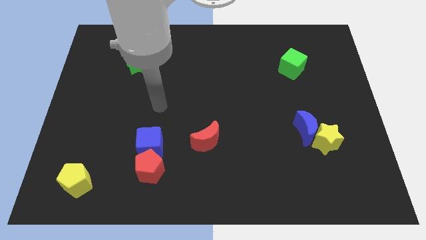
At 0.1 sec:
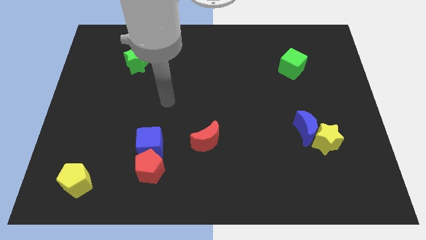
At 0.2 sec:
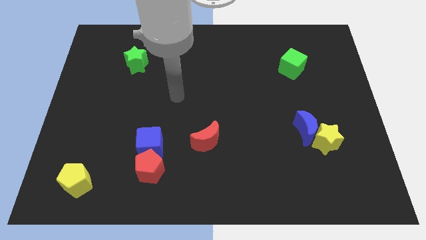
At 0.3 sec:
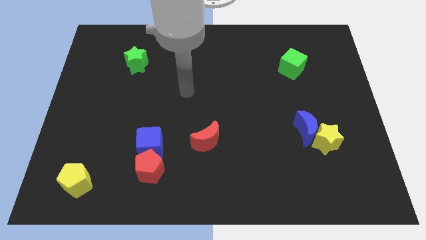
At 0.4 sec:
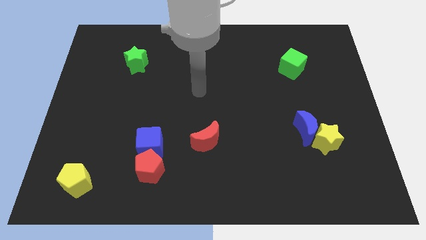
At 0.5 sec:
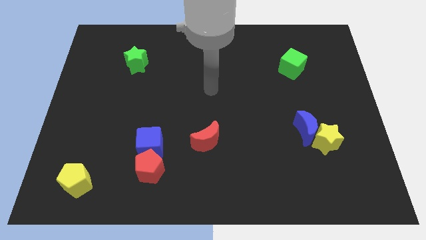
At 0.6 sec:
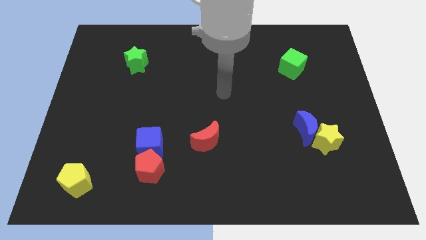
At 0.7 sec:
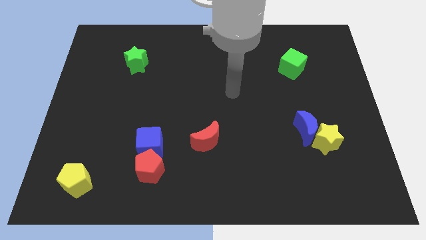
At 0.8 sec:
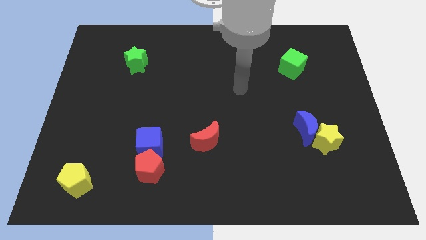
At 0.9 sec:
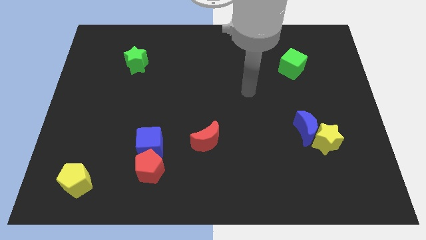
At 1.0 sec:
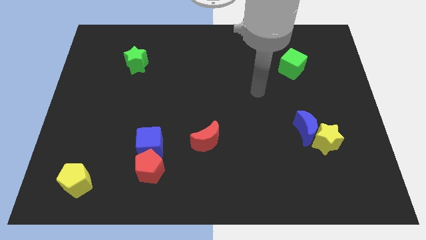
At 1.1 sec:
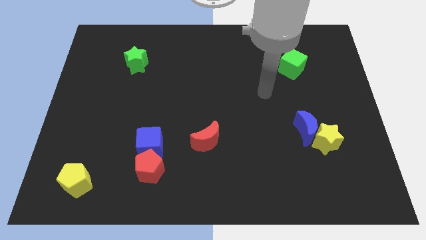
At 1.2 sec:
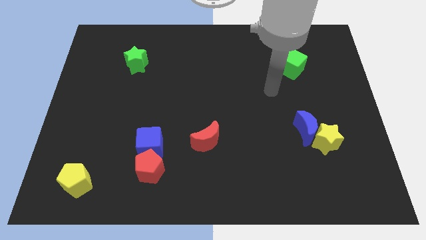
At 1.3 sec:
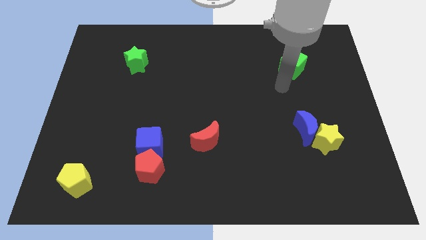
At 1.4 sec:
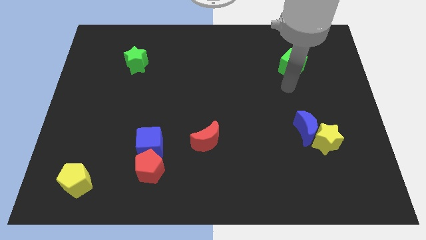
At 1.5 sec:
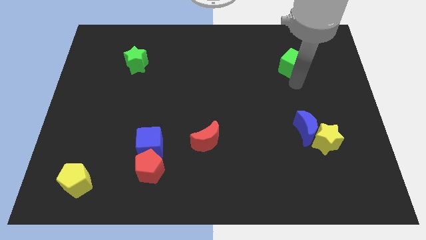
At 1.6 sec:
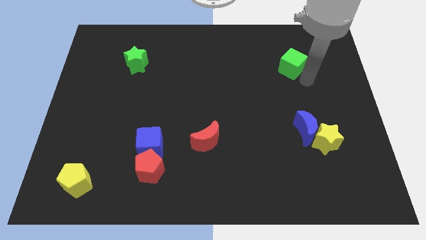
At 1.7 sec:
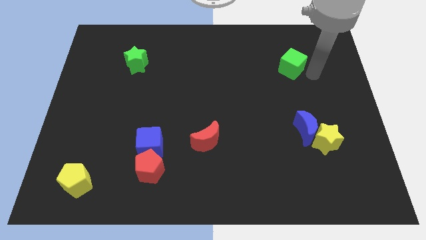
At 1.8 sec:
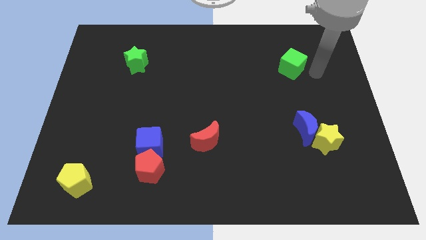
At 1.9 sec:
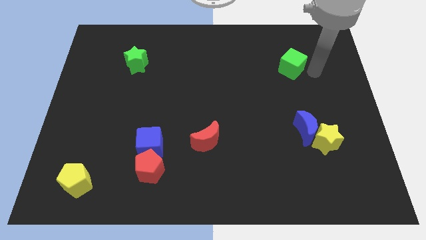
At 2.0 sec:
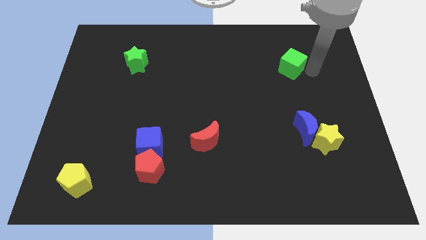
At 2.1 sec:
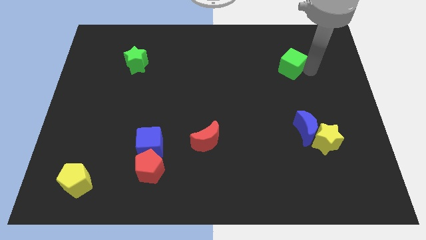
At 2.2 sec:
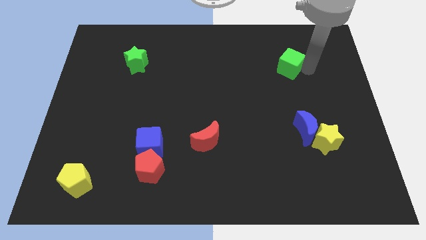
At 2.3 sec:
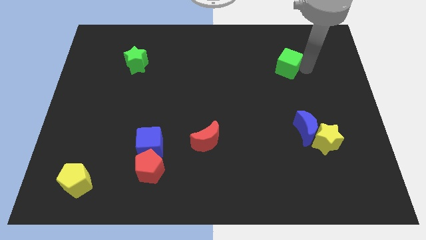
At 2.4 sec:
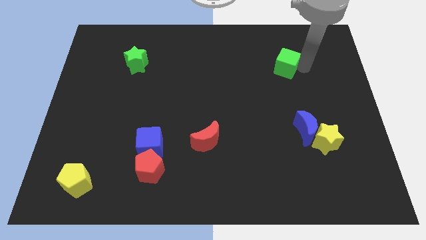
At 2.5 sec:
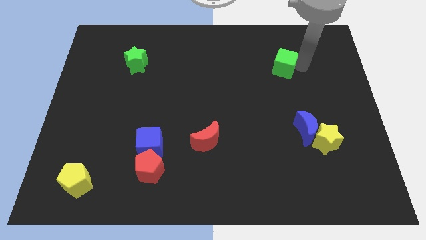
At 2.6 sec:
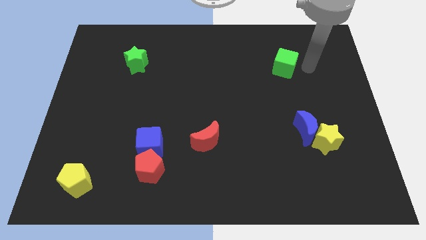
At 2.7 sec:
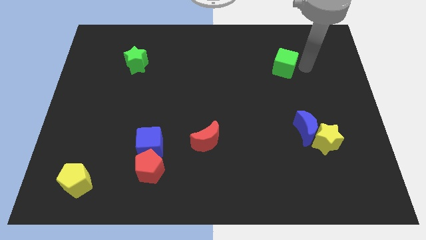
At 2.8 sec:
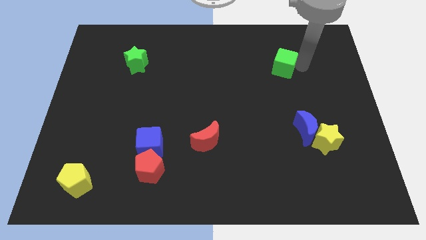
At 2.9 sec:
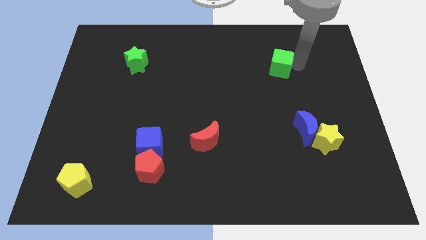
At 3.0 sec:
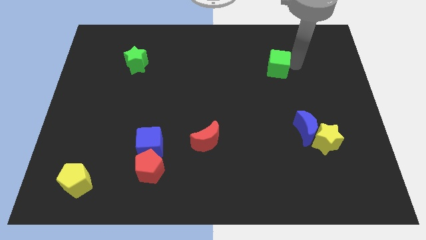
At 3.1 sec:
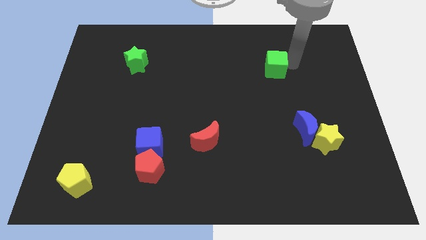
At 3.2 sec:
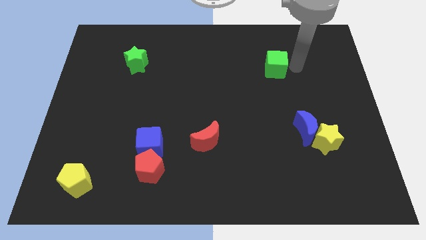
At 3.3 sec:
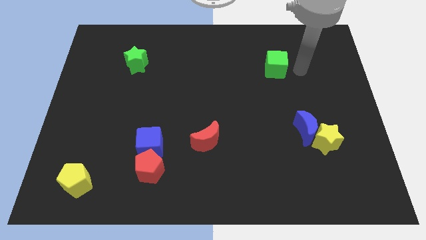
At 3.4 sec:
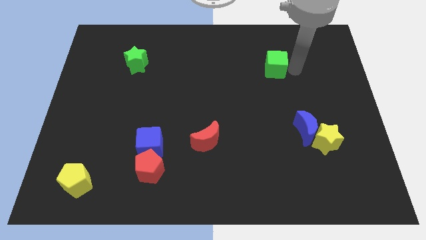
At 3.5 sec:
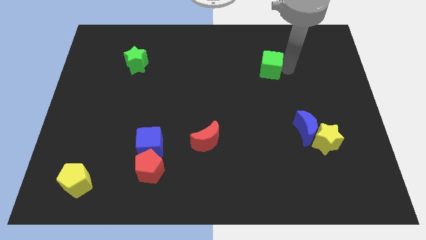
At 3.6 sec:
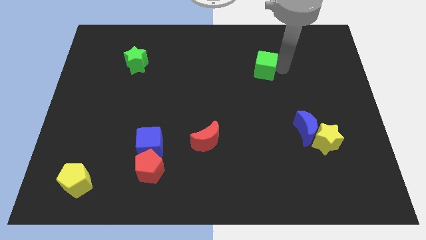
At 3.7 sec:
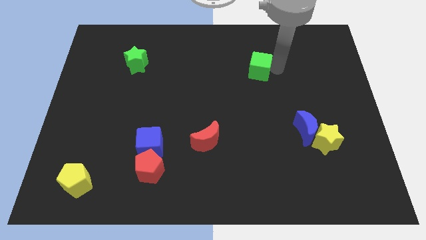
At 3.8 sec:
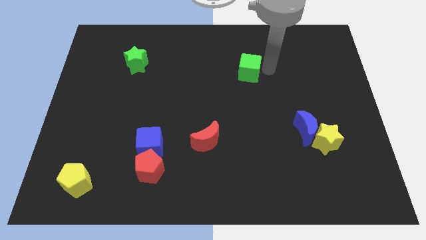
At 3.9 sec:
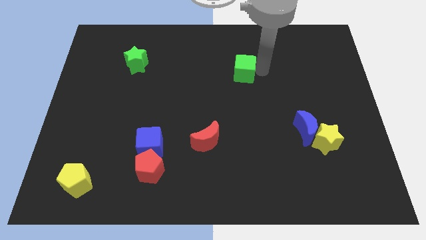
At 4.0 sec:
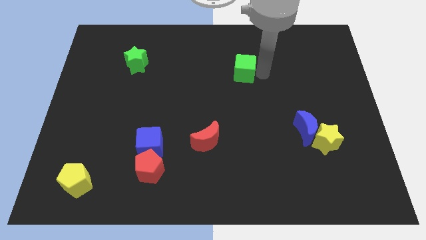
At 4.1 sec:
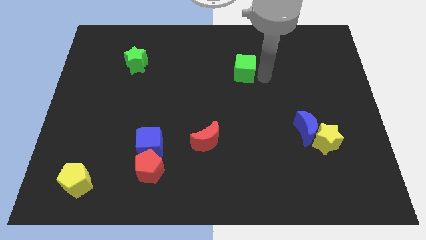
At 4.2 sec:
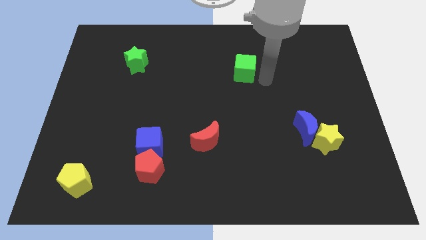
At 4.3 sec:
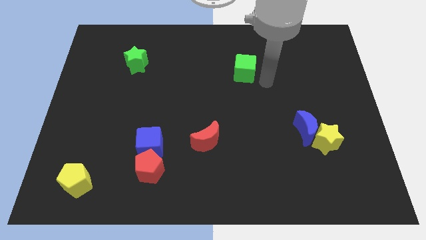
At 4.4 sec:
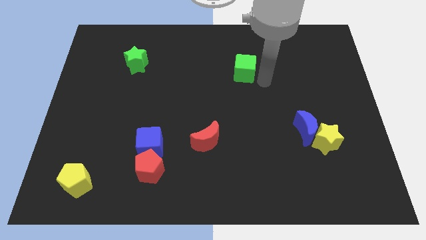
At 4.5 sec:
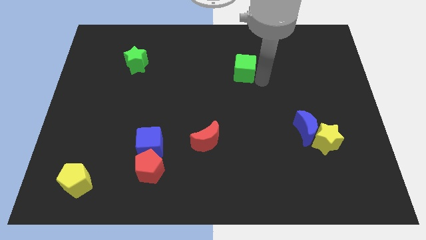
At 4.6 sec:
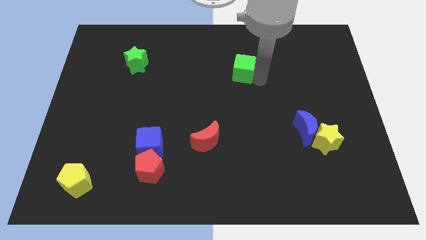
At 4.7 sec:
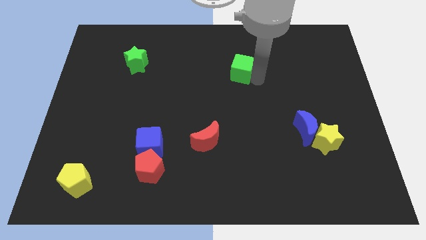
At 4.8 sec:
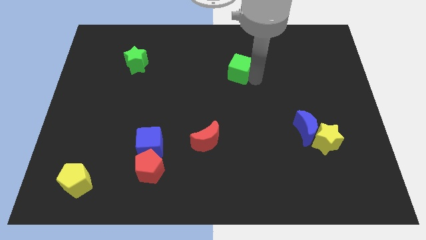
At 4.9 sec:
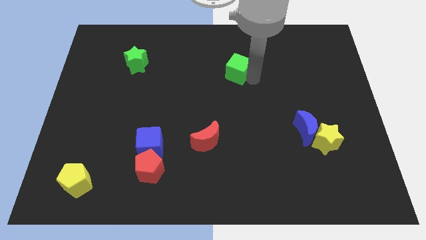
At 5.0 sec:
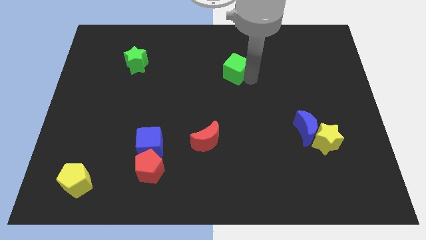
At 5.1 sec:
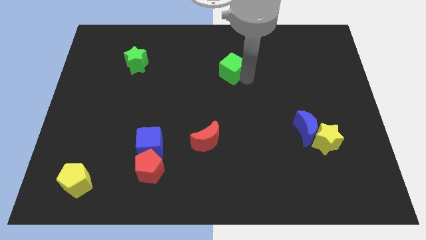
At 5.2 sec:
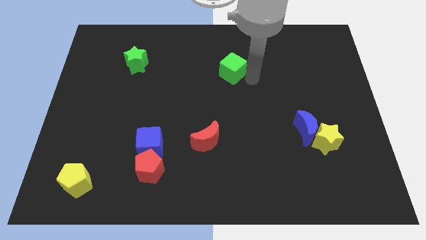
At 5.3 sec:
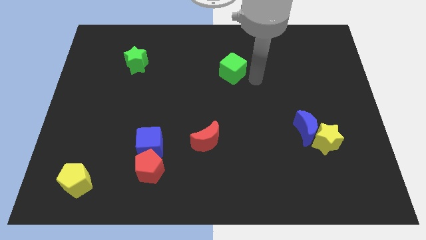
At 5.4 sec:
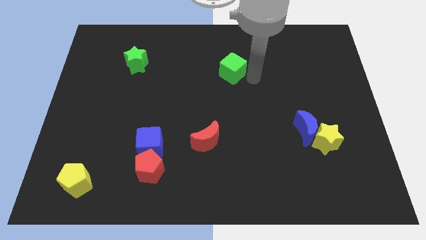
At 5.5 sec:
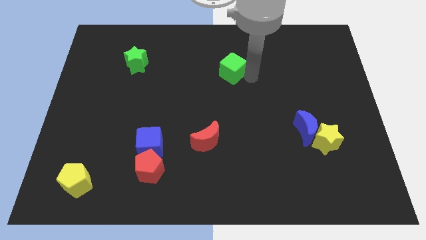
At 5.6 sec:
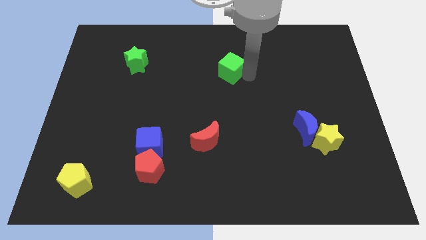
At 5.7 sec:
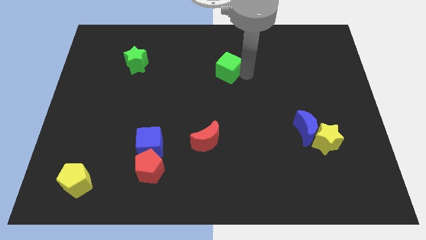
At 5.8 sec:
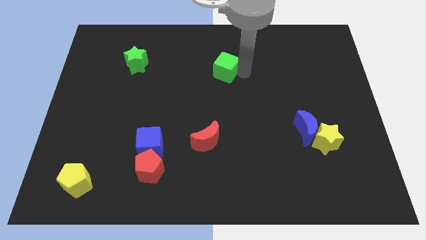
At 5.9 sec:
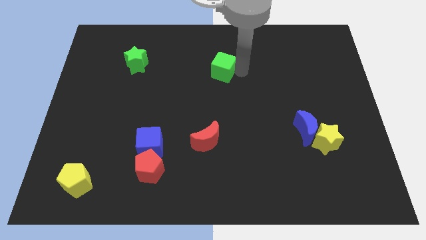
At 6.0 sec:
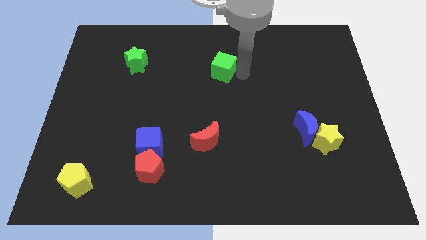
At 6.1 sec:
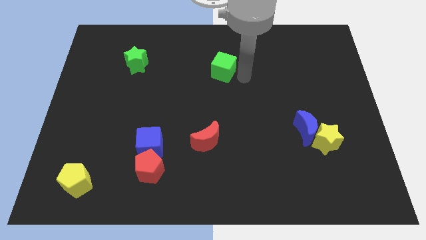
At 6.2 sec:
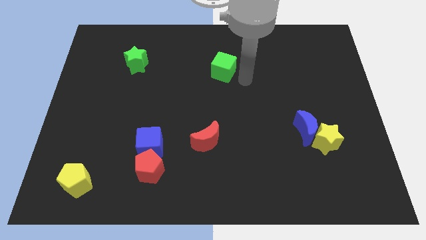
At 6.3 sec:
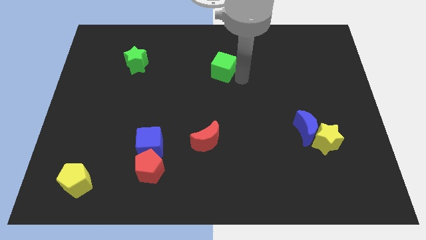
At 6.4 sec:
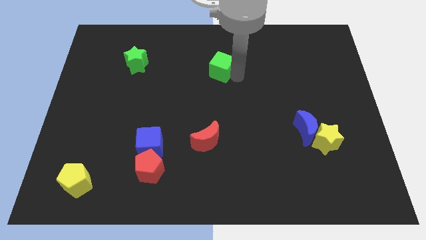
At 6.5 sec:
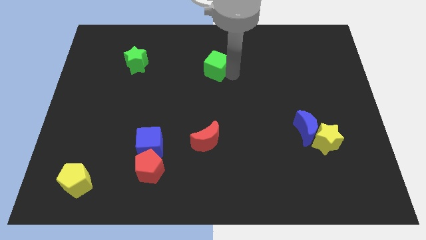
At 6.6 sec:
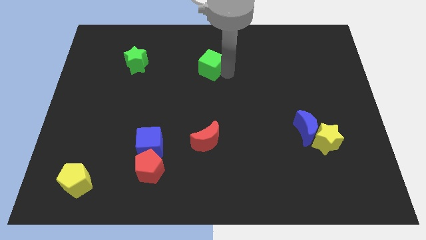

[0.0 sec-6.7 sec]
move the green cube left

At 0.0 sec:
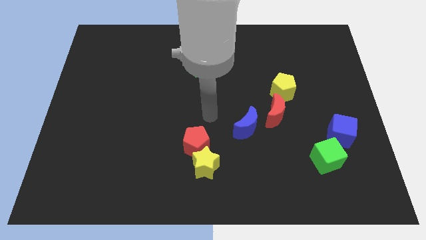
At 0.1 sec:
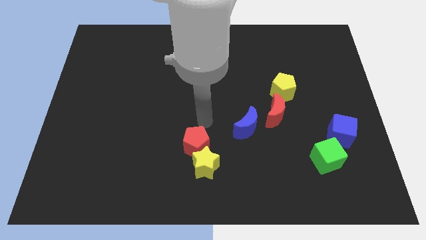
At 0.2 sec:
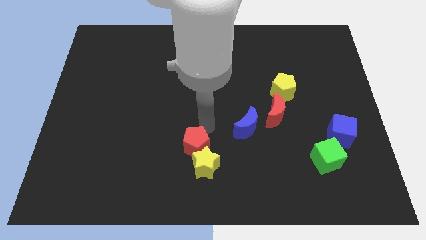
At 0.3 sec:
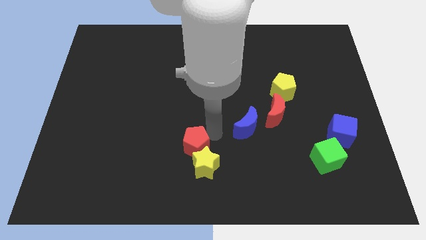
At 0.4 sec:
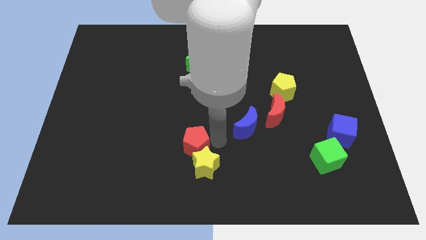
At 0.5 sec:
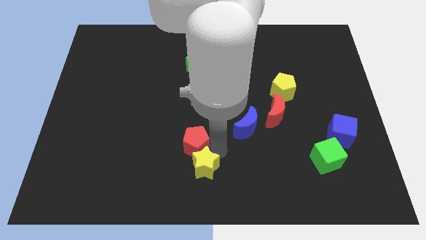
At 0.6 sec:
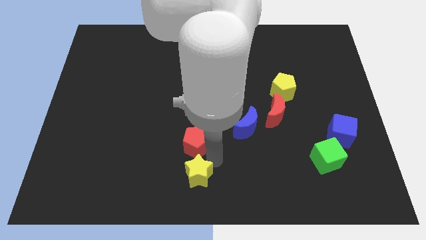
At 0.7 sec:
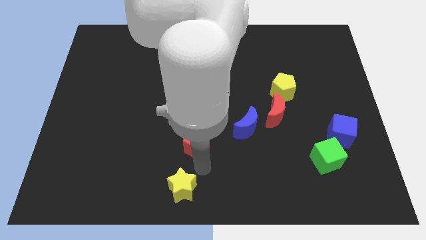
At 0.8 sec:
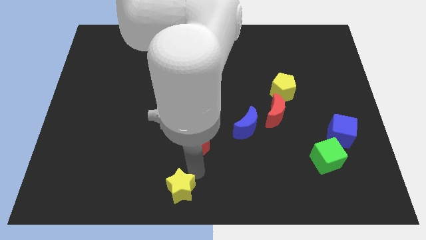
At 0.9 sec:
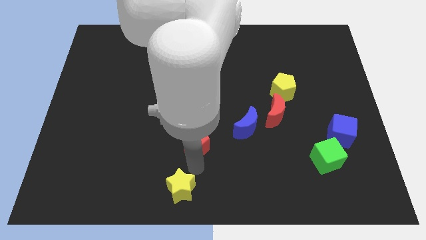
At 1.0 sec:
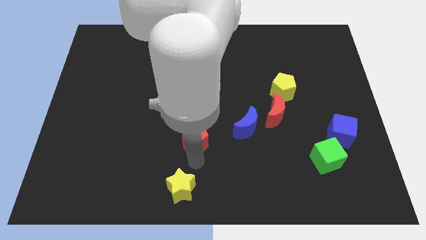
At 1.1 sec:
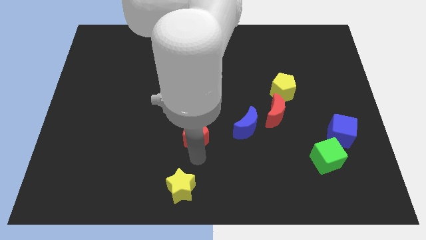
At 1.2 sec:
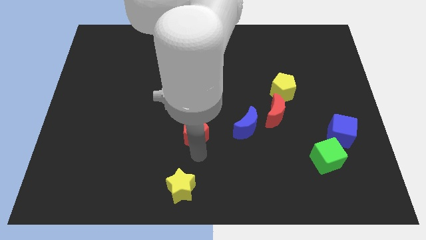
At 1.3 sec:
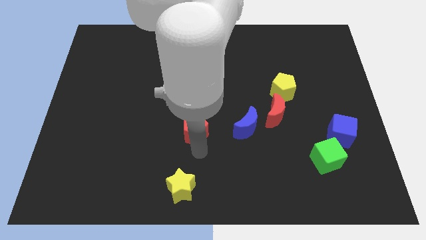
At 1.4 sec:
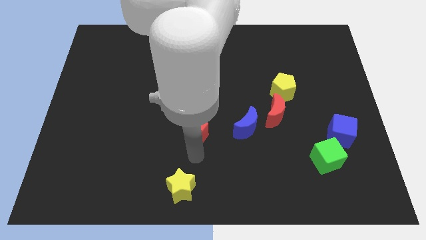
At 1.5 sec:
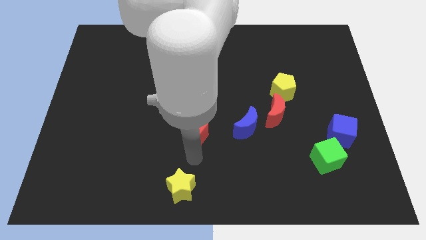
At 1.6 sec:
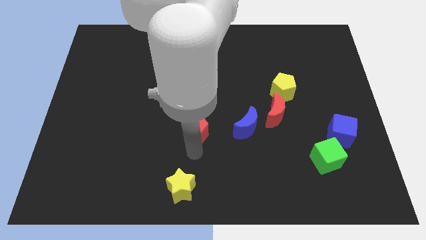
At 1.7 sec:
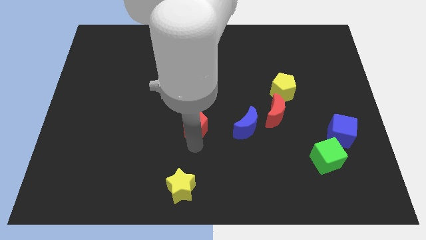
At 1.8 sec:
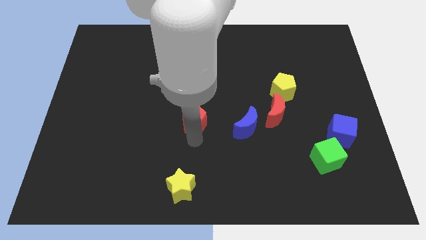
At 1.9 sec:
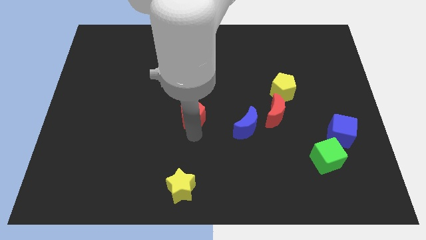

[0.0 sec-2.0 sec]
slightly push the red pentagon up
